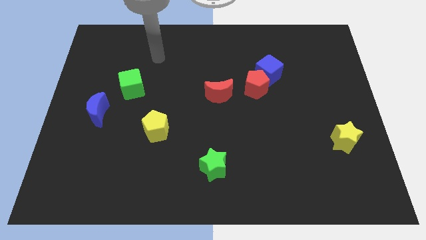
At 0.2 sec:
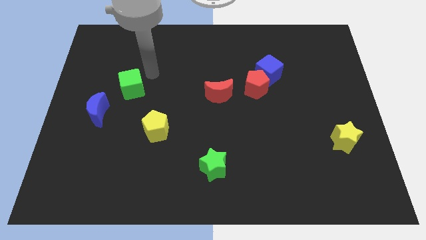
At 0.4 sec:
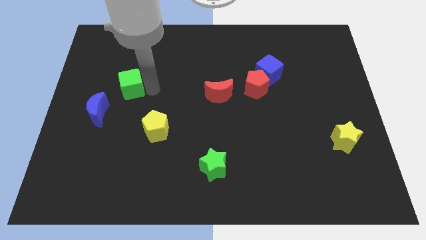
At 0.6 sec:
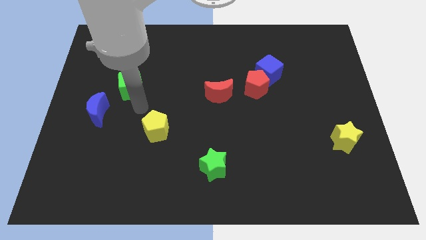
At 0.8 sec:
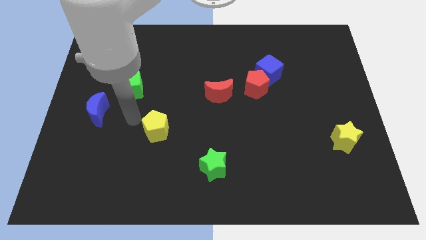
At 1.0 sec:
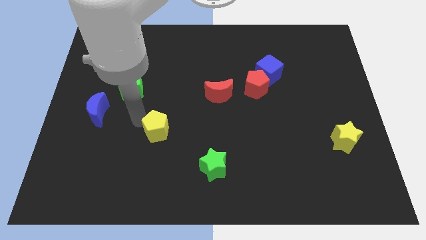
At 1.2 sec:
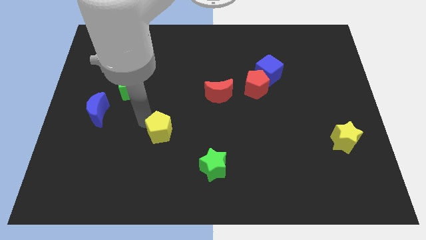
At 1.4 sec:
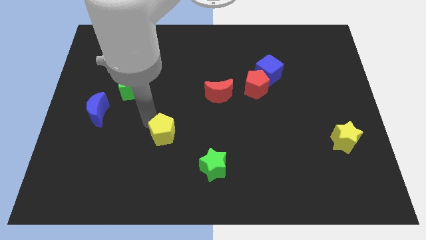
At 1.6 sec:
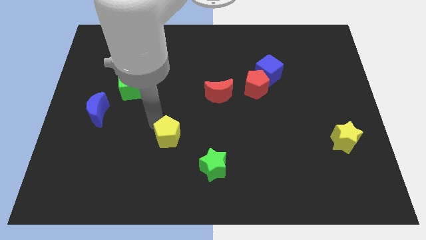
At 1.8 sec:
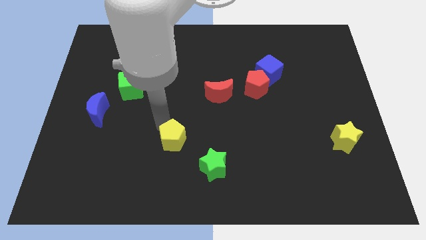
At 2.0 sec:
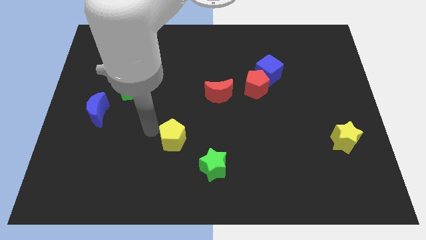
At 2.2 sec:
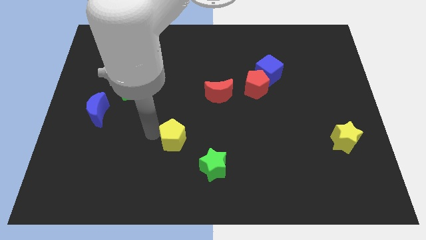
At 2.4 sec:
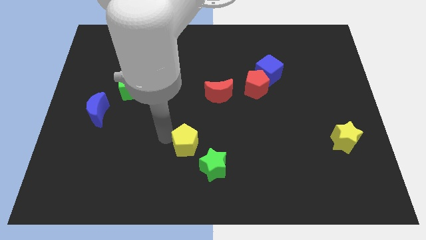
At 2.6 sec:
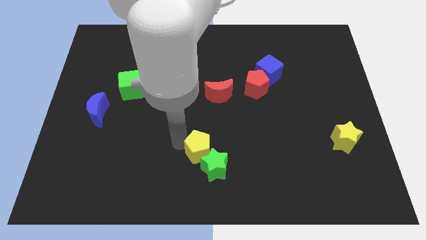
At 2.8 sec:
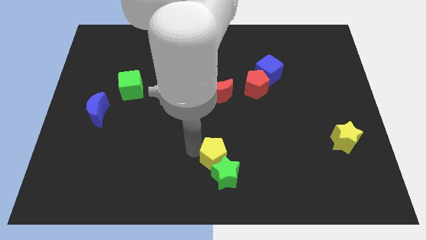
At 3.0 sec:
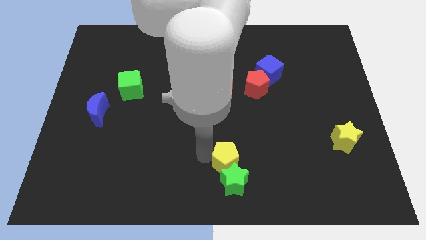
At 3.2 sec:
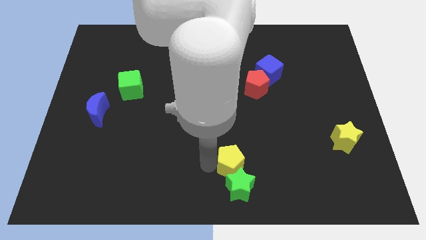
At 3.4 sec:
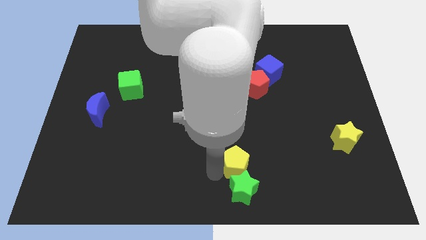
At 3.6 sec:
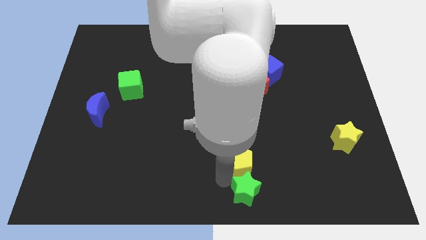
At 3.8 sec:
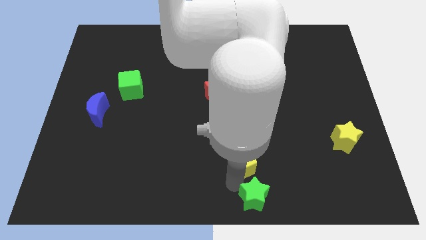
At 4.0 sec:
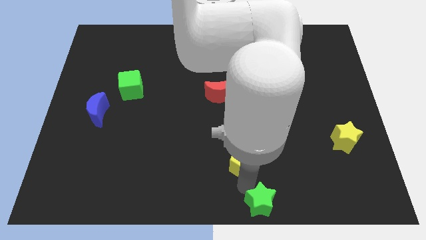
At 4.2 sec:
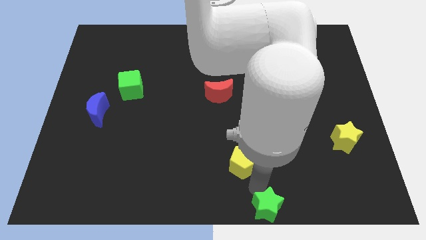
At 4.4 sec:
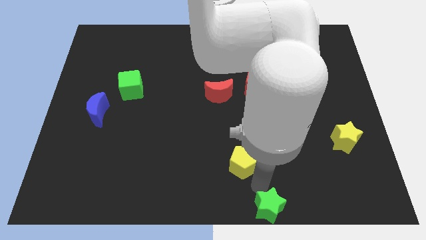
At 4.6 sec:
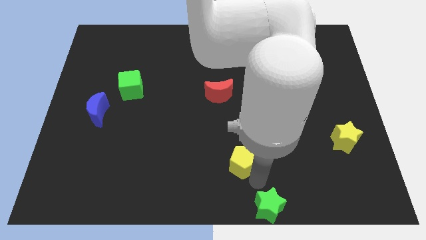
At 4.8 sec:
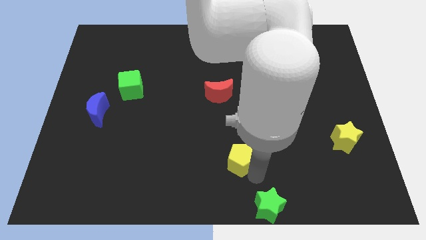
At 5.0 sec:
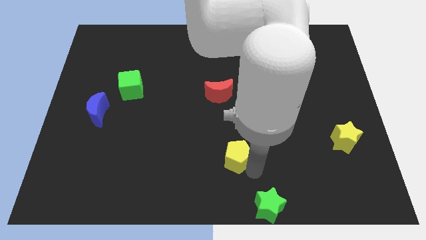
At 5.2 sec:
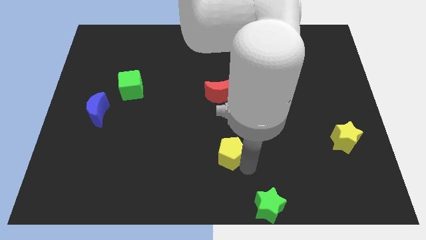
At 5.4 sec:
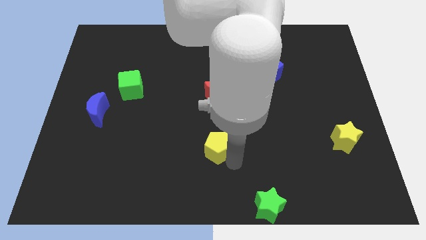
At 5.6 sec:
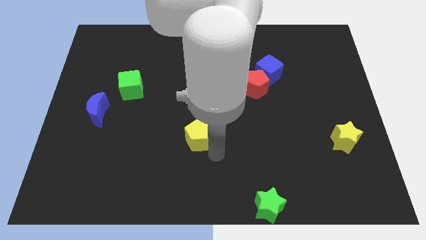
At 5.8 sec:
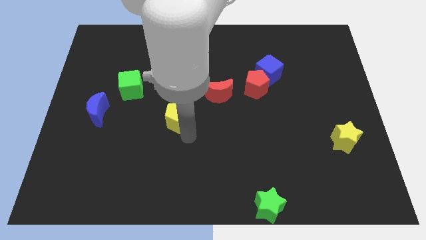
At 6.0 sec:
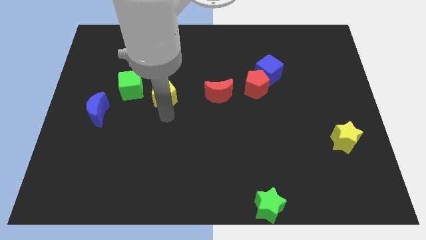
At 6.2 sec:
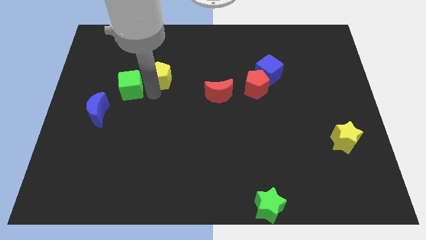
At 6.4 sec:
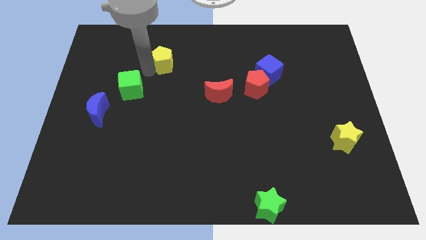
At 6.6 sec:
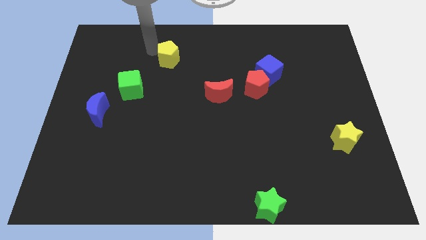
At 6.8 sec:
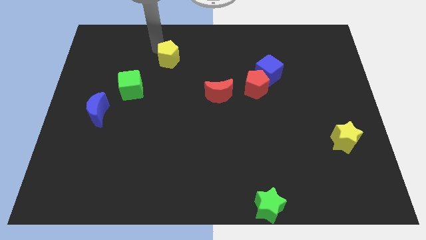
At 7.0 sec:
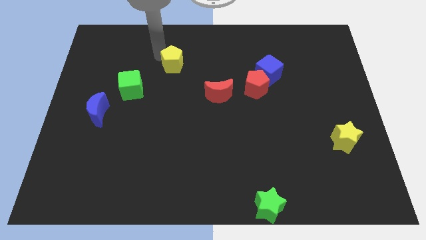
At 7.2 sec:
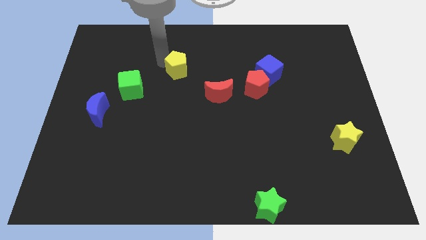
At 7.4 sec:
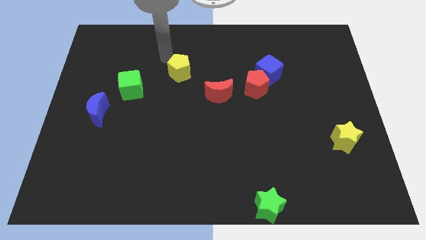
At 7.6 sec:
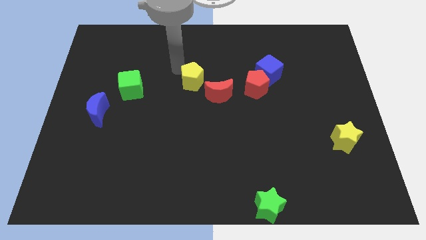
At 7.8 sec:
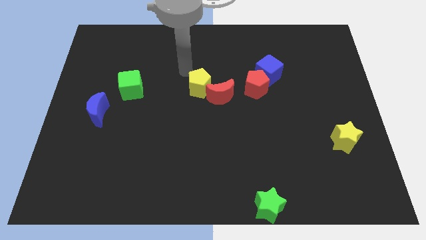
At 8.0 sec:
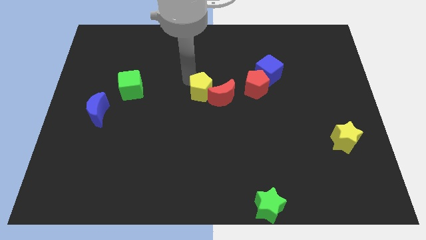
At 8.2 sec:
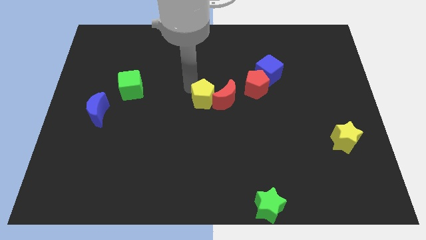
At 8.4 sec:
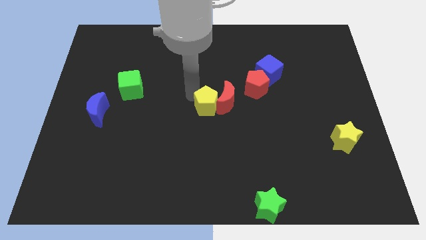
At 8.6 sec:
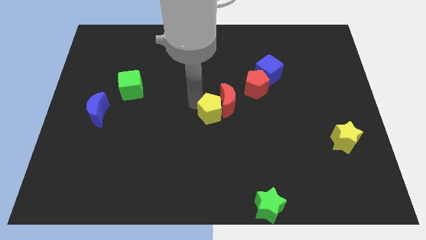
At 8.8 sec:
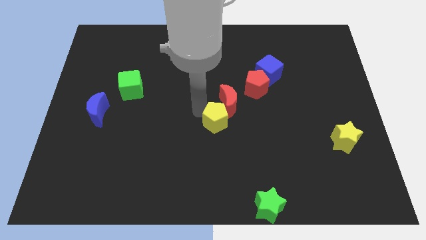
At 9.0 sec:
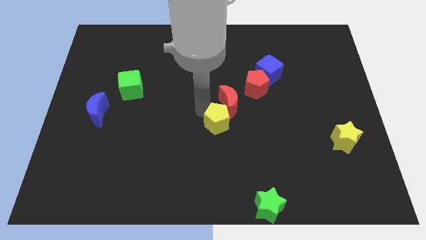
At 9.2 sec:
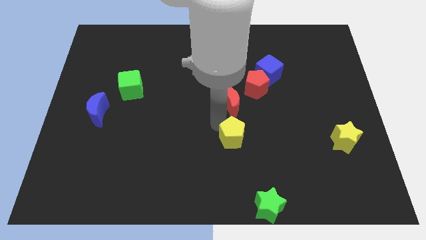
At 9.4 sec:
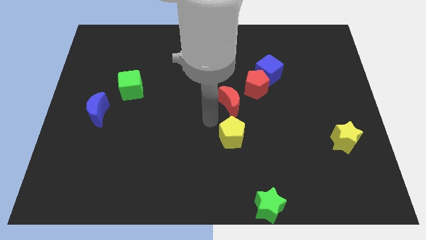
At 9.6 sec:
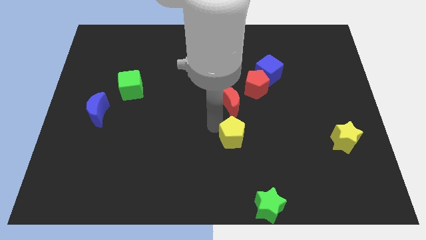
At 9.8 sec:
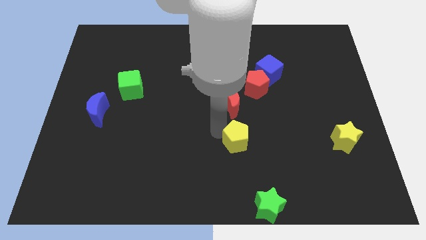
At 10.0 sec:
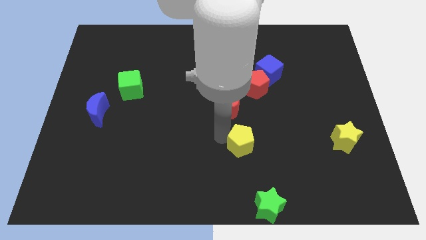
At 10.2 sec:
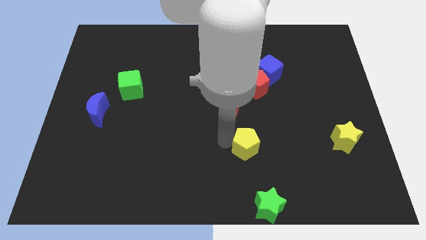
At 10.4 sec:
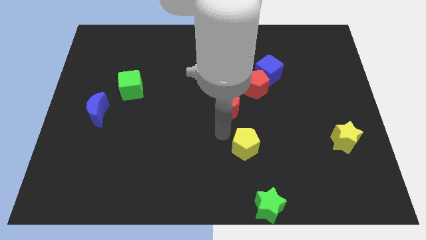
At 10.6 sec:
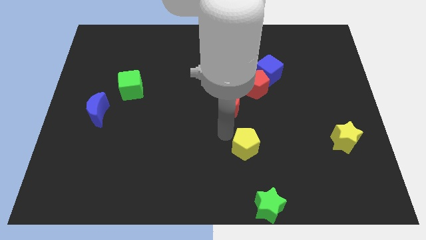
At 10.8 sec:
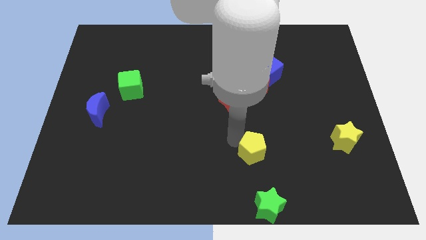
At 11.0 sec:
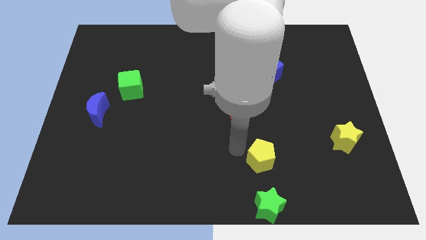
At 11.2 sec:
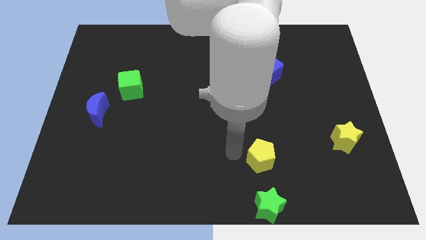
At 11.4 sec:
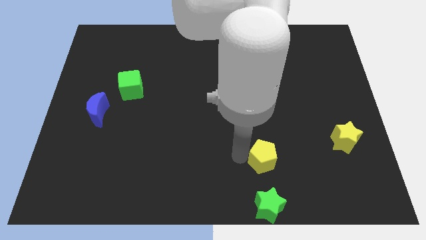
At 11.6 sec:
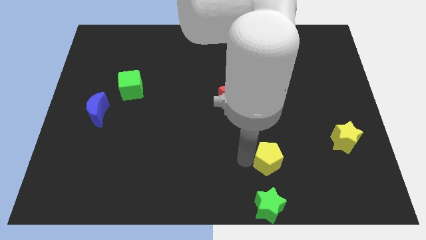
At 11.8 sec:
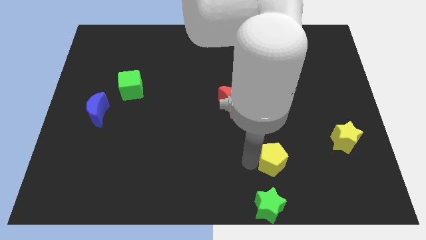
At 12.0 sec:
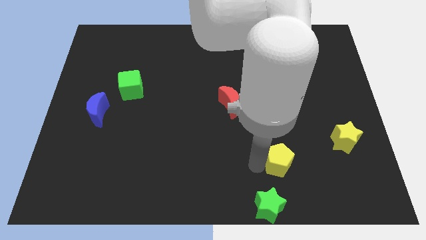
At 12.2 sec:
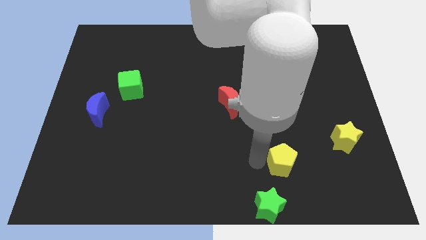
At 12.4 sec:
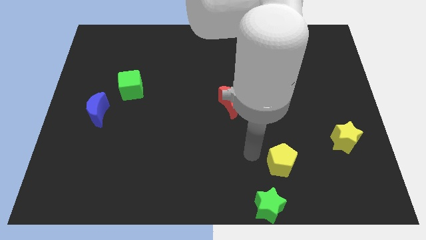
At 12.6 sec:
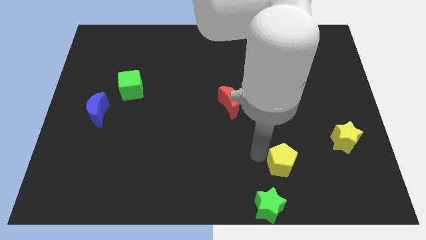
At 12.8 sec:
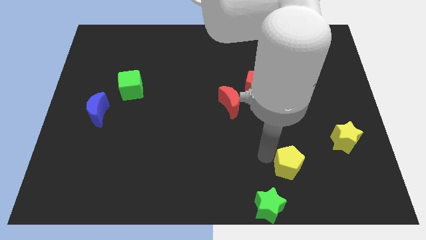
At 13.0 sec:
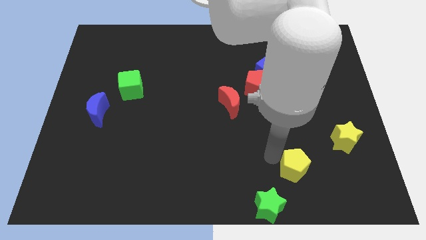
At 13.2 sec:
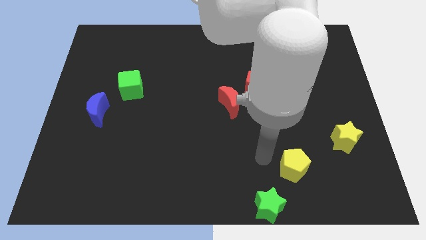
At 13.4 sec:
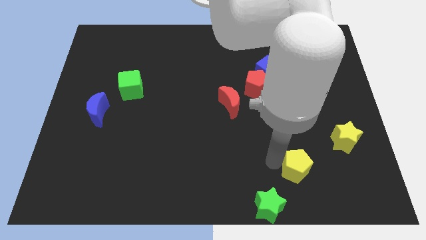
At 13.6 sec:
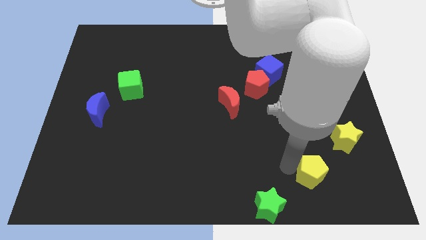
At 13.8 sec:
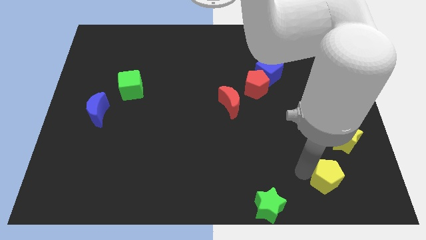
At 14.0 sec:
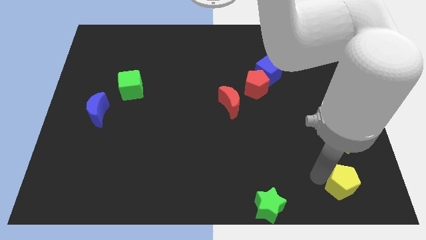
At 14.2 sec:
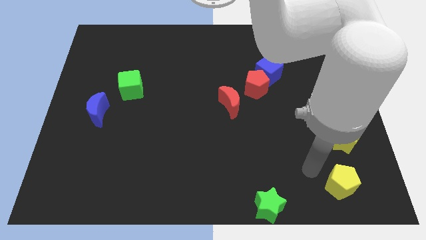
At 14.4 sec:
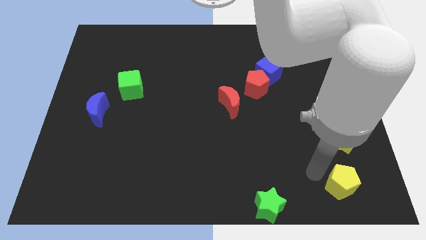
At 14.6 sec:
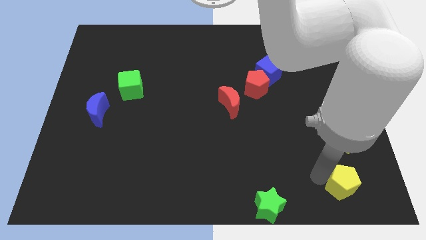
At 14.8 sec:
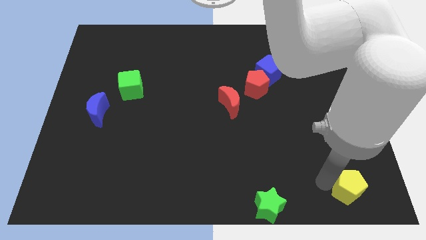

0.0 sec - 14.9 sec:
move the yellow pentagon to the bottom right of the board
